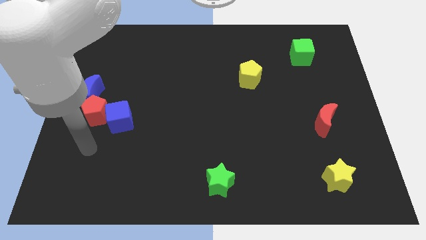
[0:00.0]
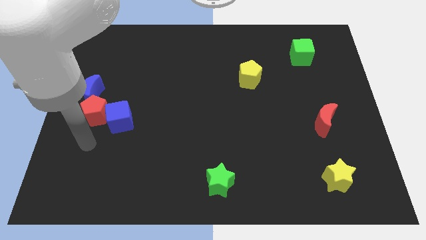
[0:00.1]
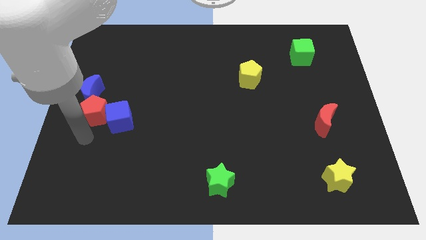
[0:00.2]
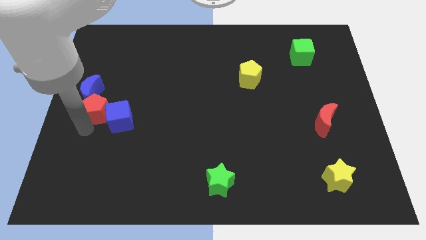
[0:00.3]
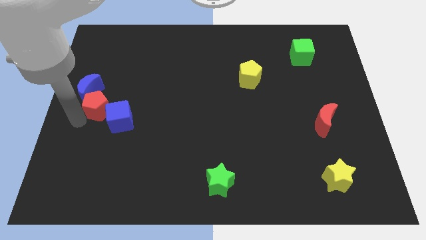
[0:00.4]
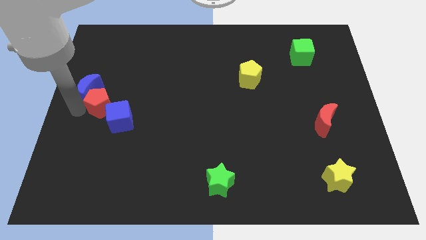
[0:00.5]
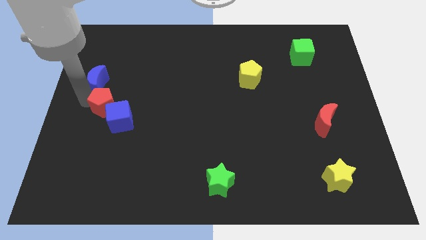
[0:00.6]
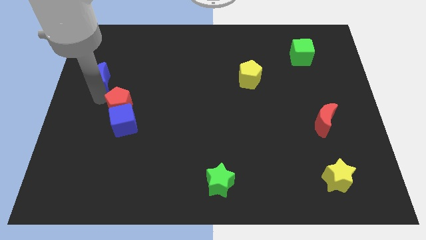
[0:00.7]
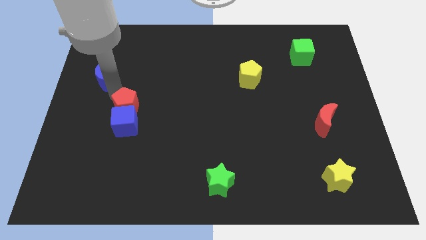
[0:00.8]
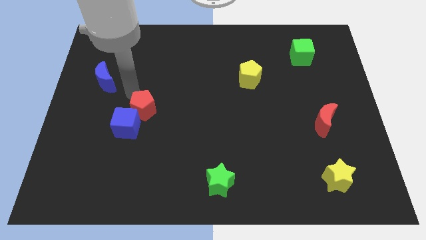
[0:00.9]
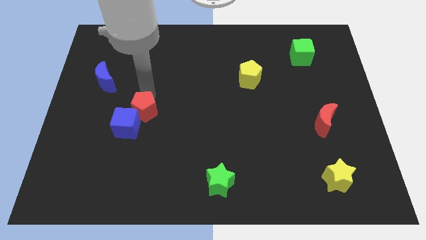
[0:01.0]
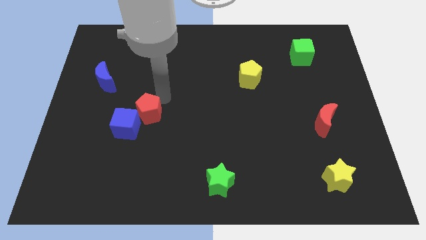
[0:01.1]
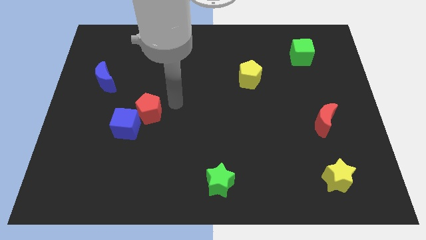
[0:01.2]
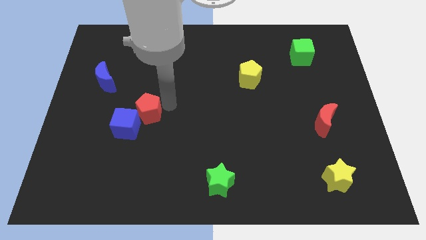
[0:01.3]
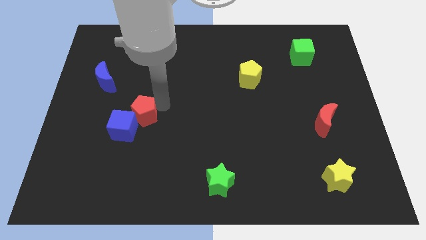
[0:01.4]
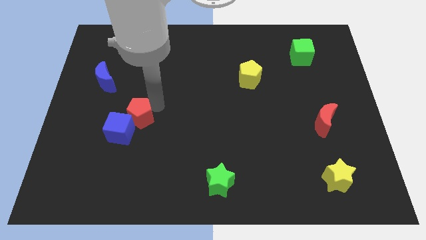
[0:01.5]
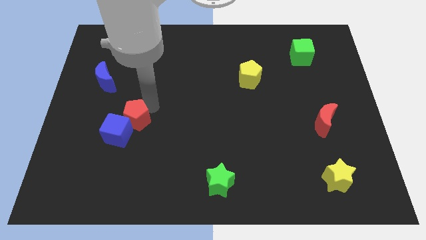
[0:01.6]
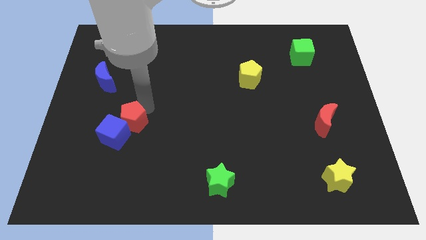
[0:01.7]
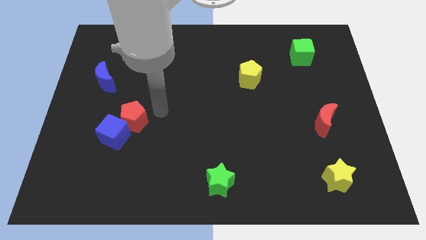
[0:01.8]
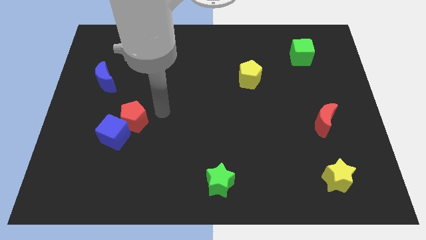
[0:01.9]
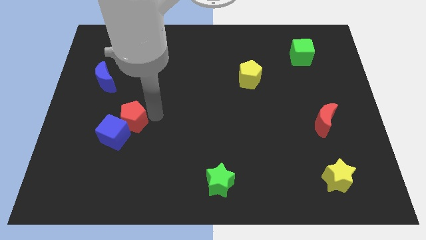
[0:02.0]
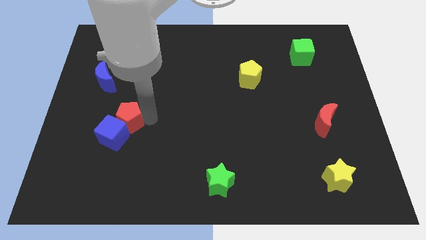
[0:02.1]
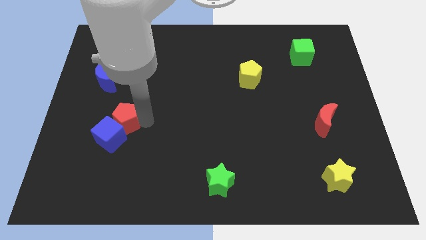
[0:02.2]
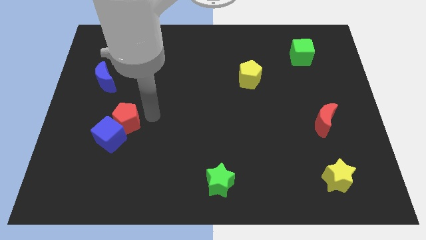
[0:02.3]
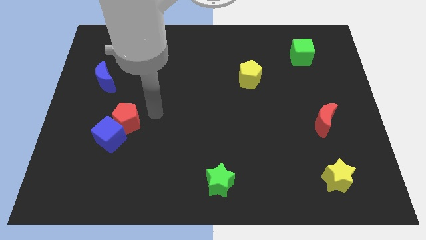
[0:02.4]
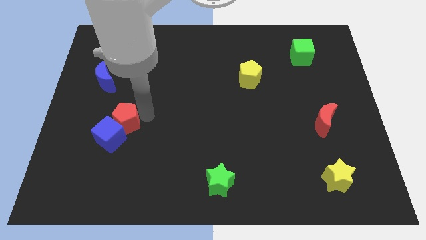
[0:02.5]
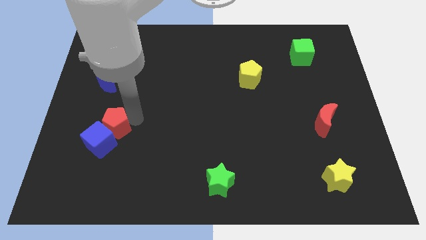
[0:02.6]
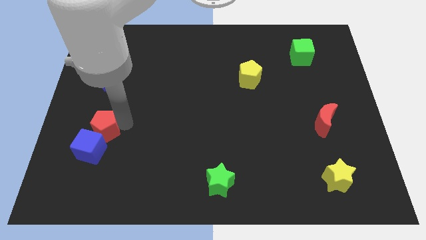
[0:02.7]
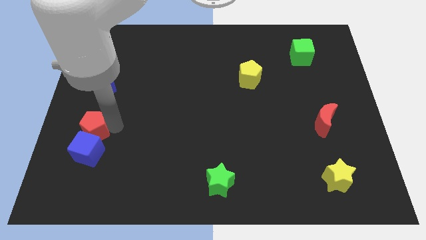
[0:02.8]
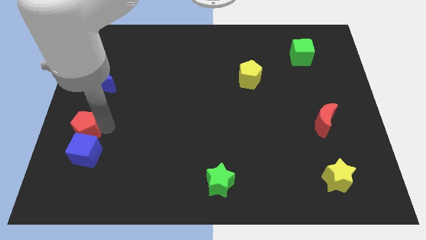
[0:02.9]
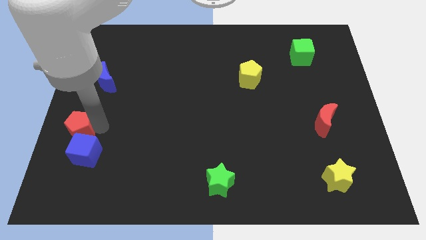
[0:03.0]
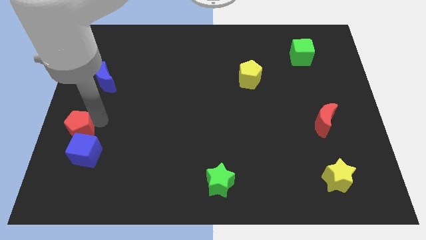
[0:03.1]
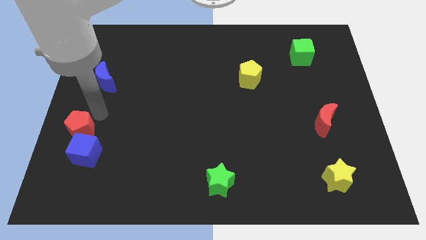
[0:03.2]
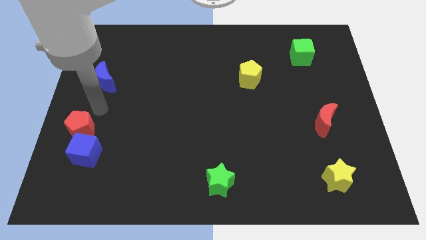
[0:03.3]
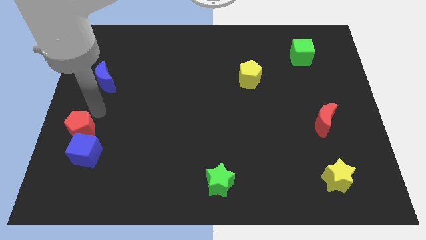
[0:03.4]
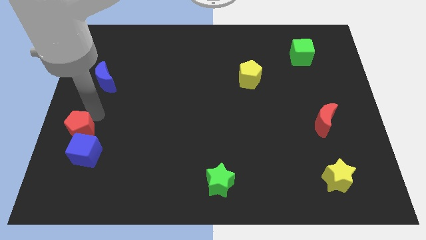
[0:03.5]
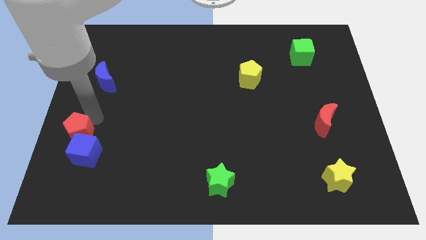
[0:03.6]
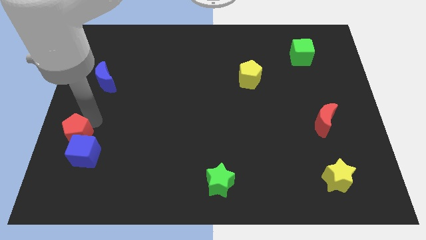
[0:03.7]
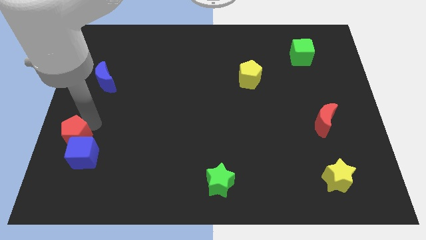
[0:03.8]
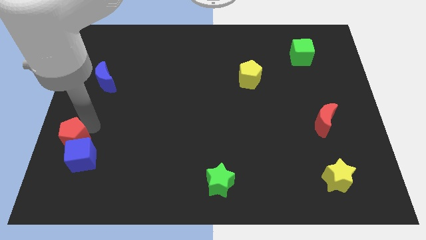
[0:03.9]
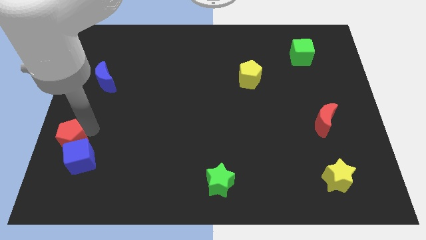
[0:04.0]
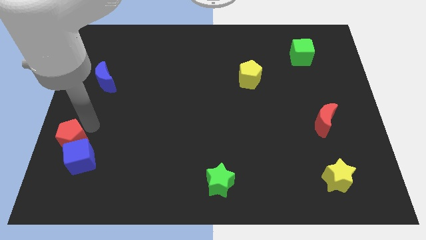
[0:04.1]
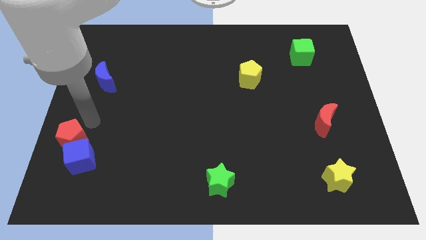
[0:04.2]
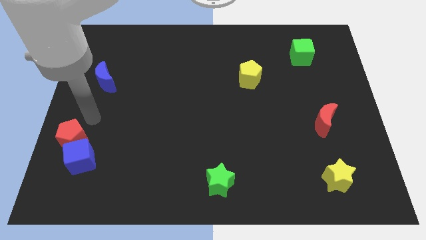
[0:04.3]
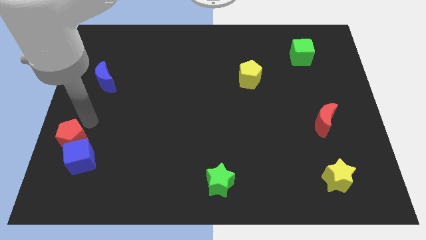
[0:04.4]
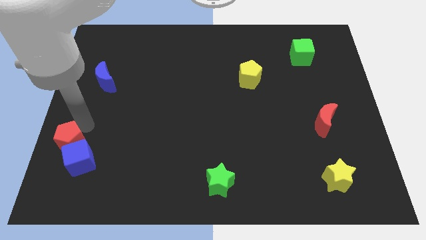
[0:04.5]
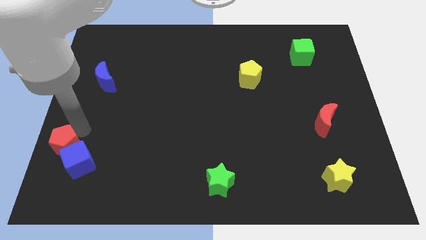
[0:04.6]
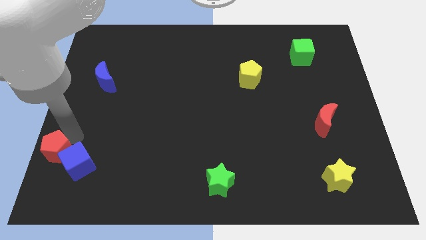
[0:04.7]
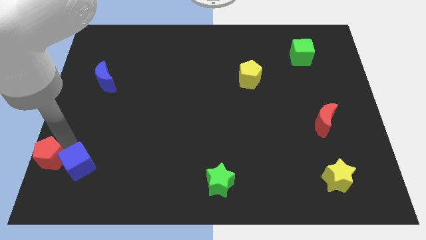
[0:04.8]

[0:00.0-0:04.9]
put the red pentagon to the bottom left

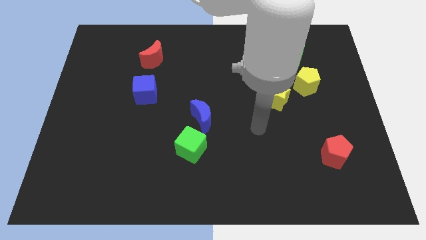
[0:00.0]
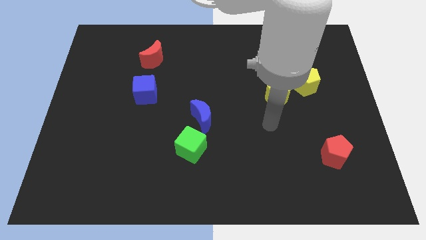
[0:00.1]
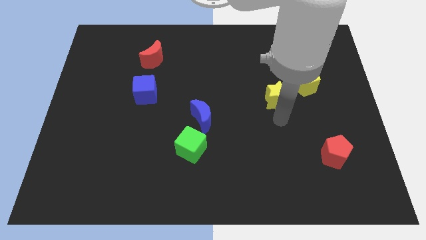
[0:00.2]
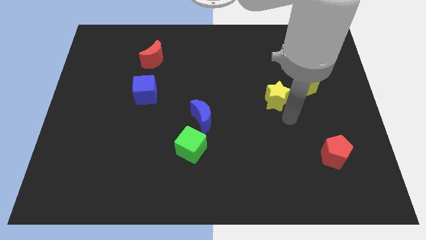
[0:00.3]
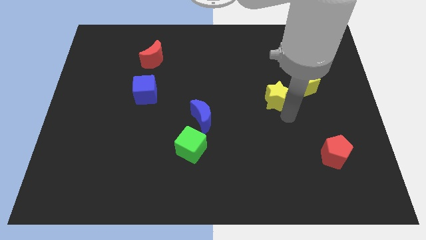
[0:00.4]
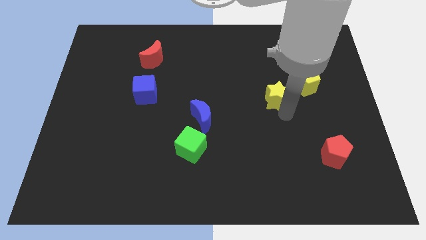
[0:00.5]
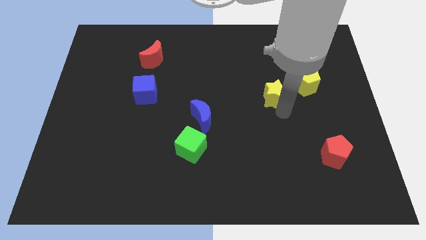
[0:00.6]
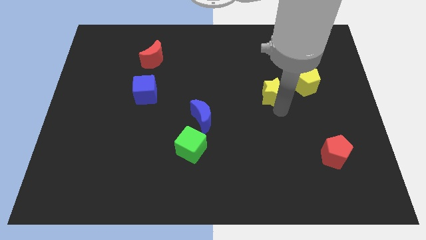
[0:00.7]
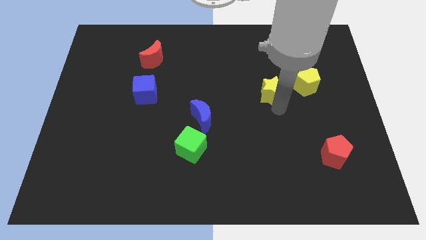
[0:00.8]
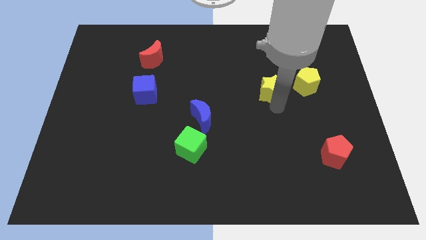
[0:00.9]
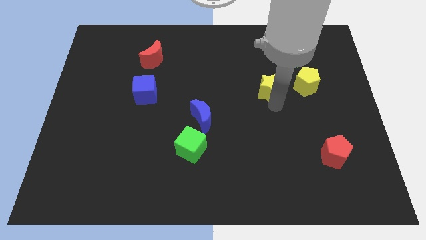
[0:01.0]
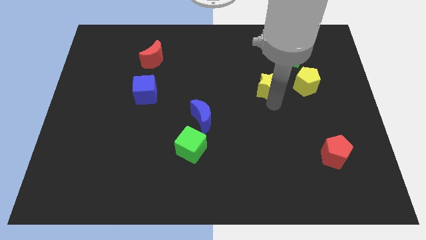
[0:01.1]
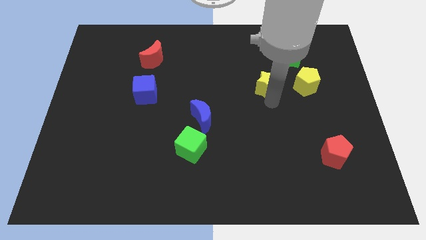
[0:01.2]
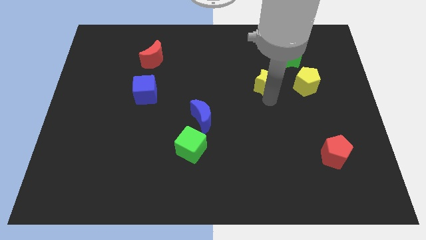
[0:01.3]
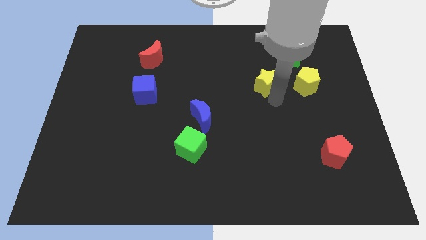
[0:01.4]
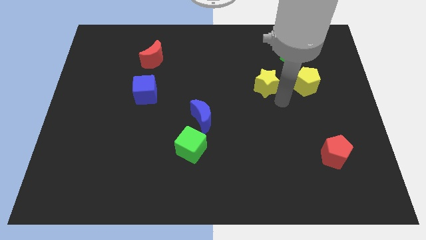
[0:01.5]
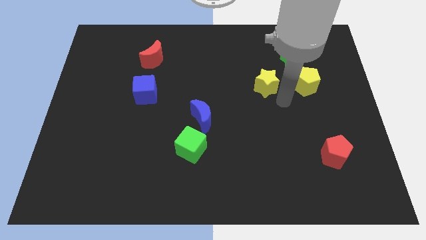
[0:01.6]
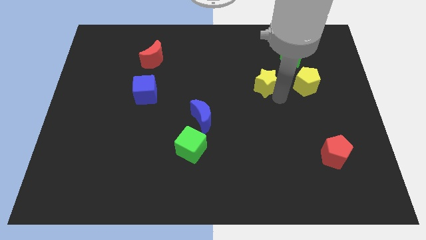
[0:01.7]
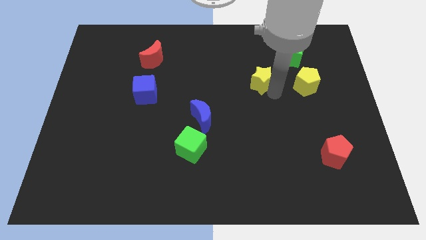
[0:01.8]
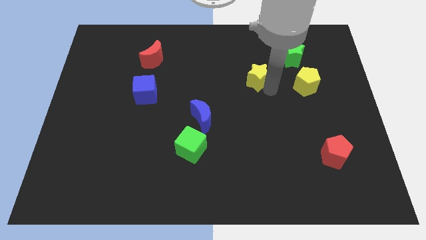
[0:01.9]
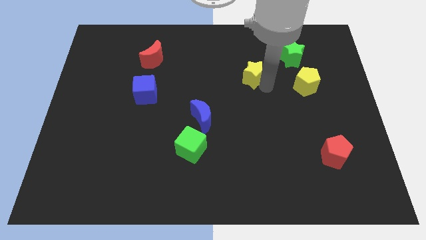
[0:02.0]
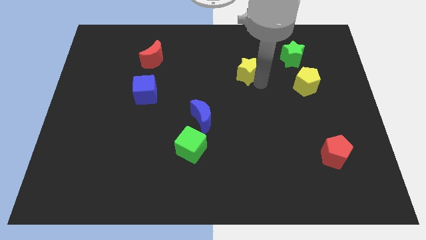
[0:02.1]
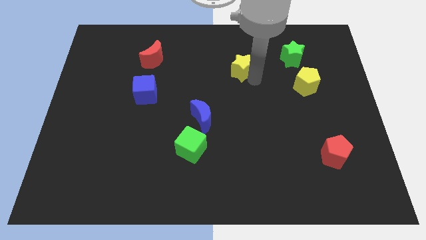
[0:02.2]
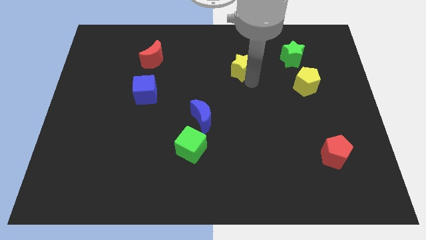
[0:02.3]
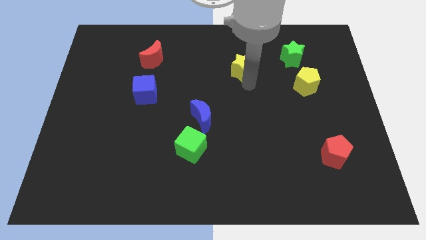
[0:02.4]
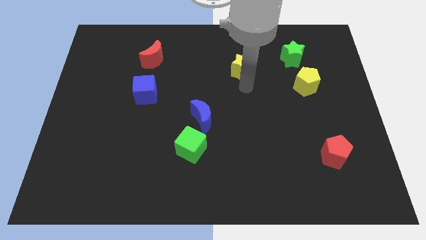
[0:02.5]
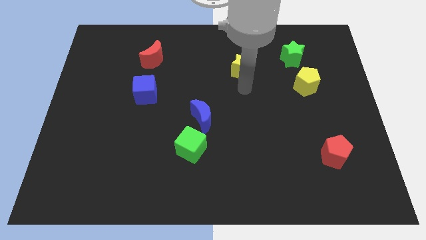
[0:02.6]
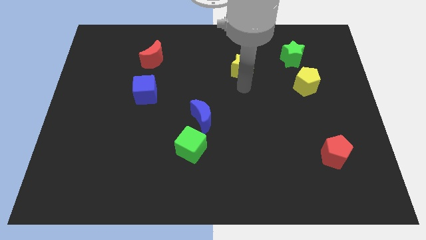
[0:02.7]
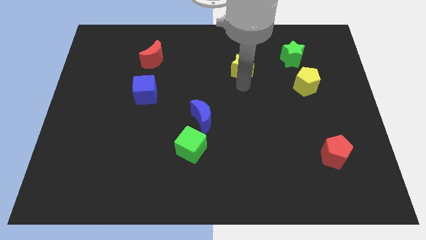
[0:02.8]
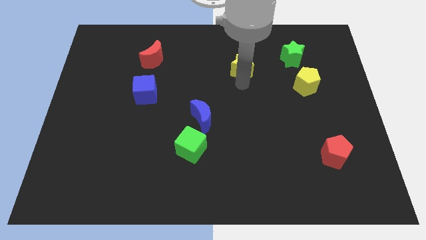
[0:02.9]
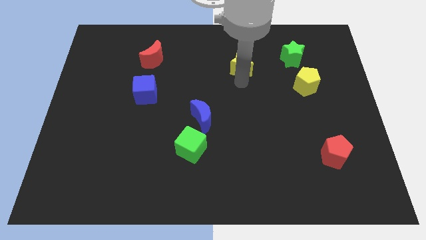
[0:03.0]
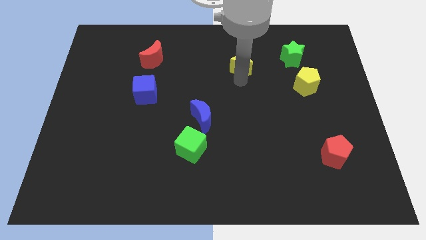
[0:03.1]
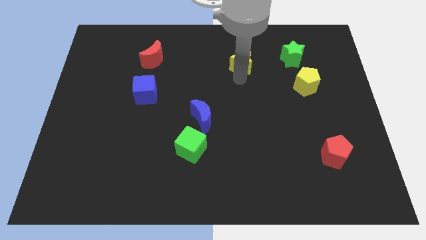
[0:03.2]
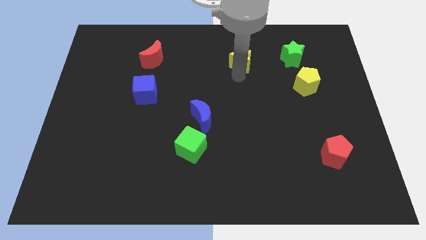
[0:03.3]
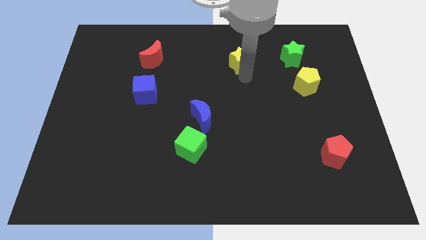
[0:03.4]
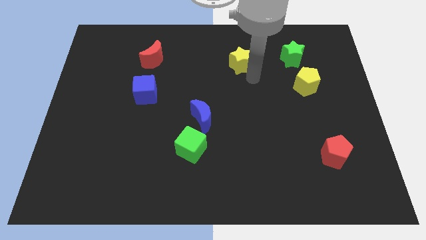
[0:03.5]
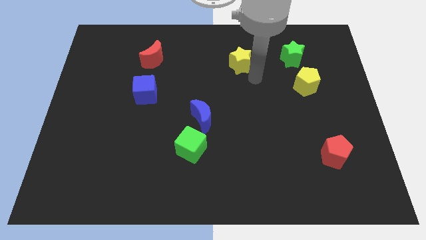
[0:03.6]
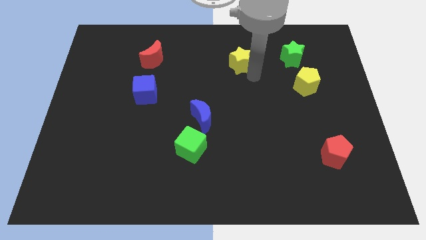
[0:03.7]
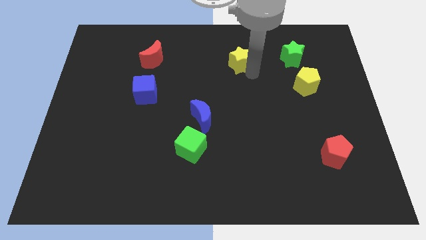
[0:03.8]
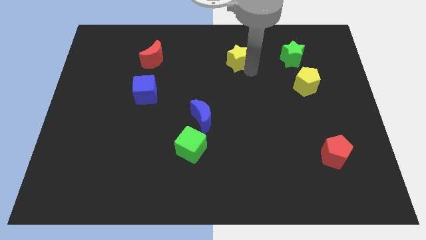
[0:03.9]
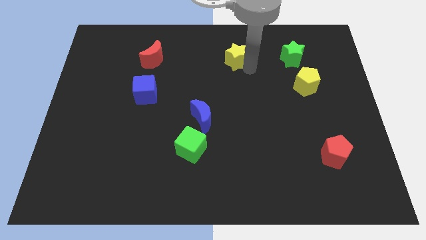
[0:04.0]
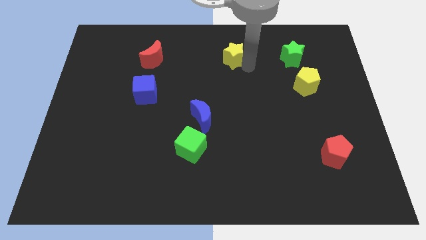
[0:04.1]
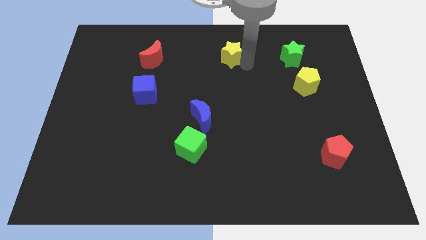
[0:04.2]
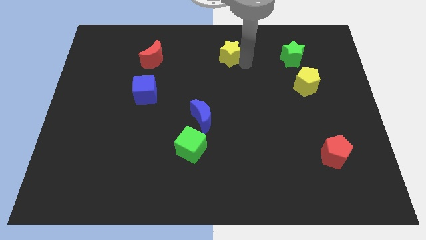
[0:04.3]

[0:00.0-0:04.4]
move the yellow star to the top
